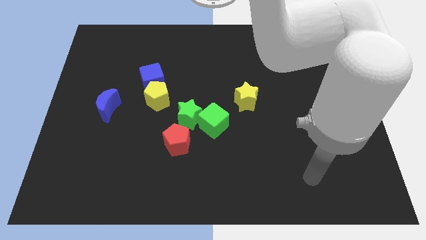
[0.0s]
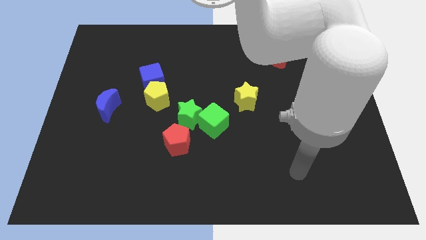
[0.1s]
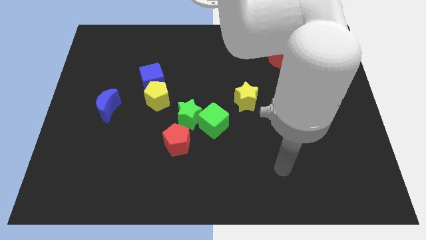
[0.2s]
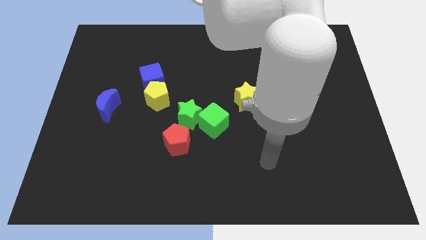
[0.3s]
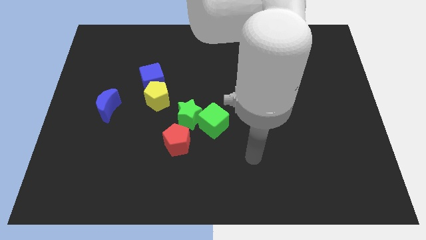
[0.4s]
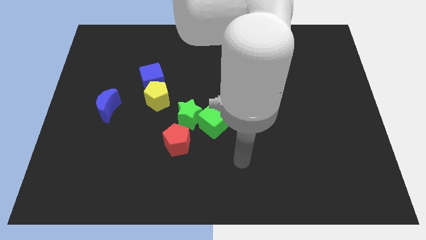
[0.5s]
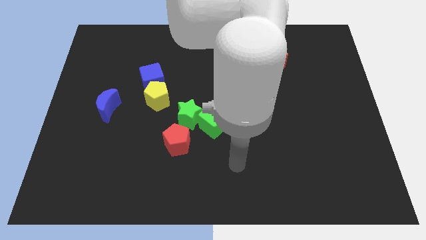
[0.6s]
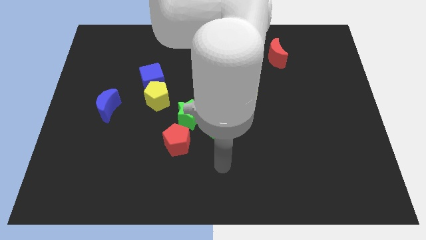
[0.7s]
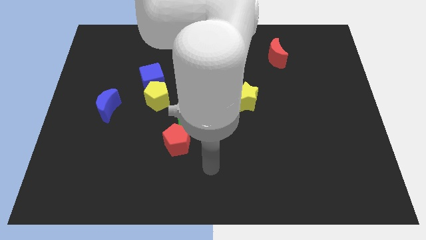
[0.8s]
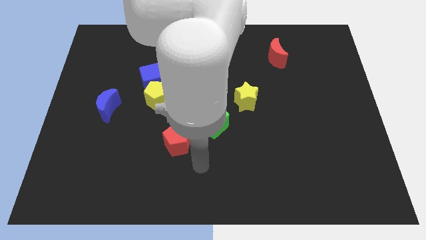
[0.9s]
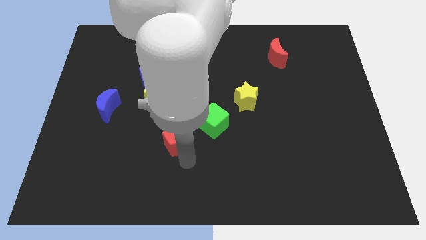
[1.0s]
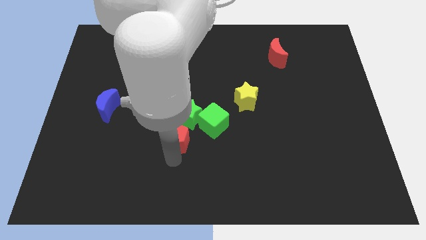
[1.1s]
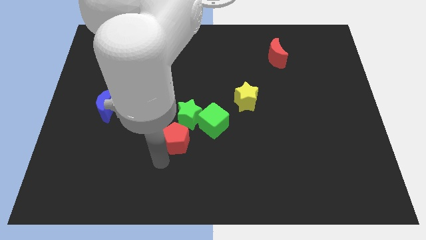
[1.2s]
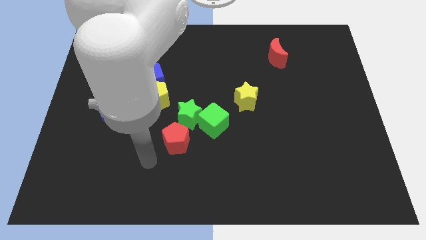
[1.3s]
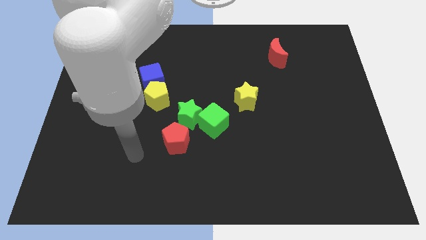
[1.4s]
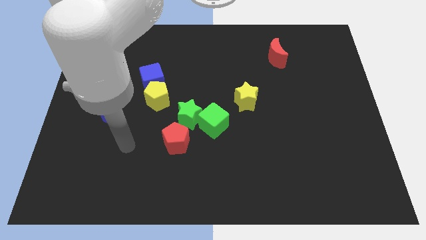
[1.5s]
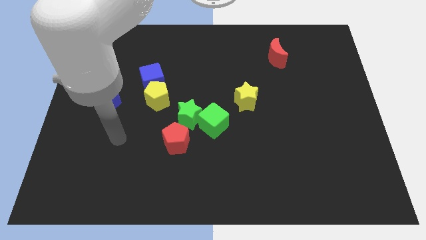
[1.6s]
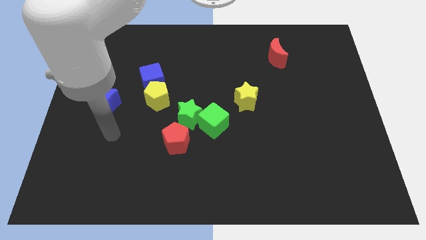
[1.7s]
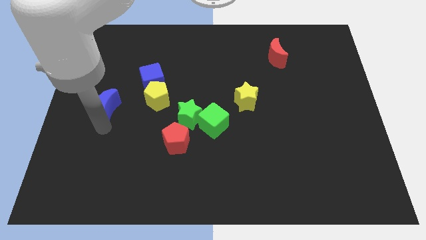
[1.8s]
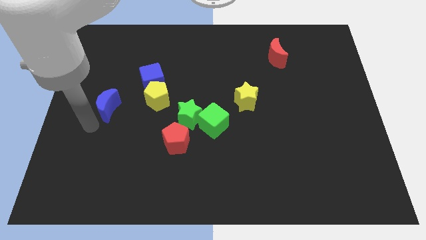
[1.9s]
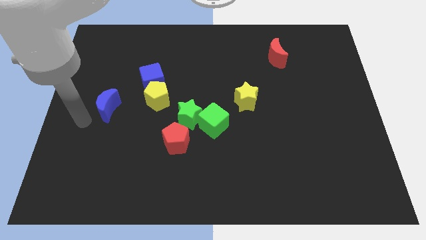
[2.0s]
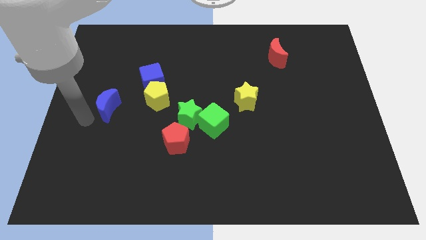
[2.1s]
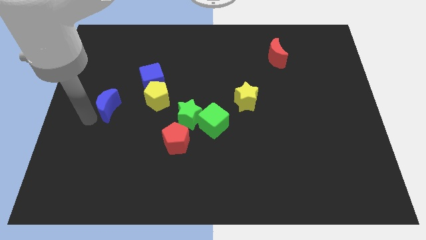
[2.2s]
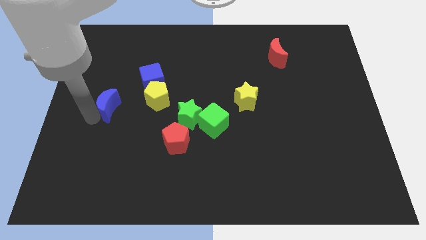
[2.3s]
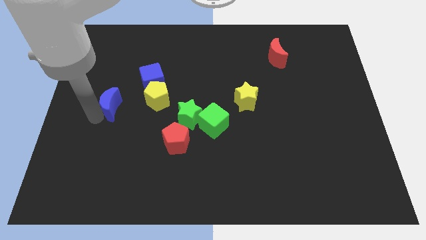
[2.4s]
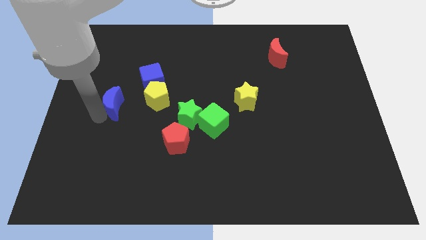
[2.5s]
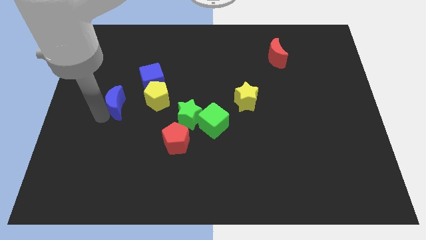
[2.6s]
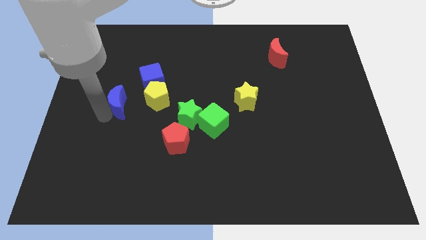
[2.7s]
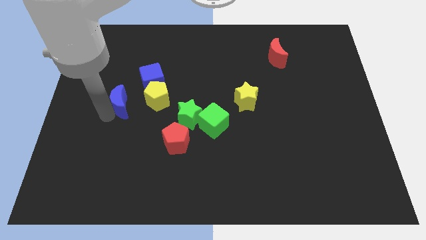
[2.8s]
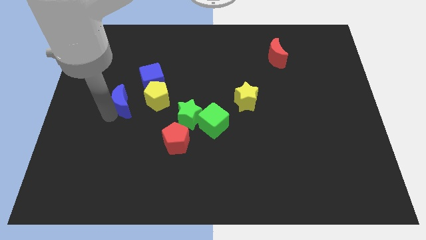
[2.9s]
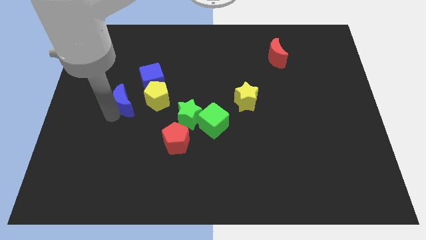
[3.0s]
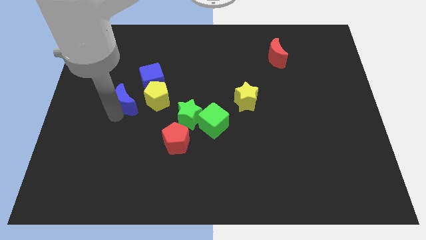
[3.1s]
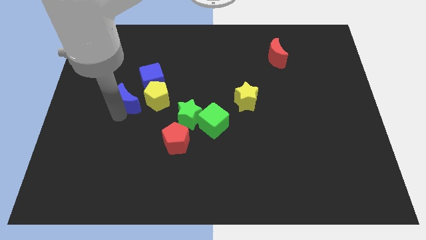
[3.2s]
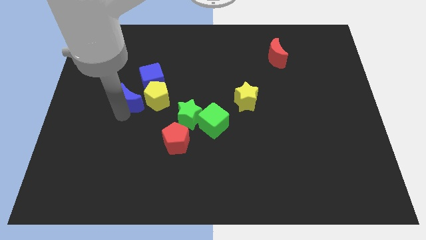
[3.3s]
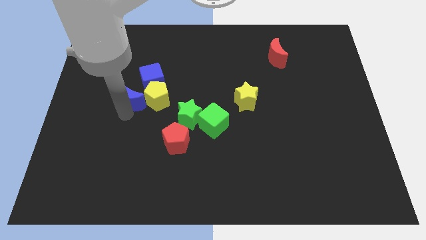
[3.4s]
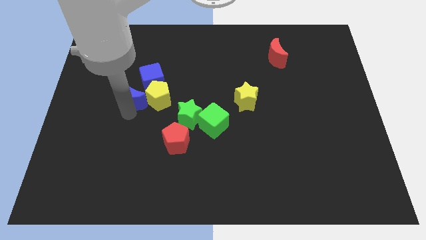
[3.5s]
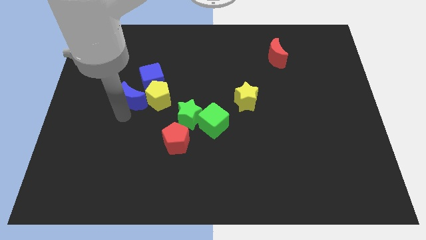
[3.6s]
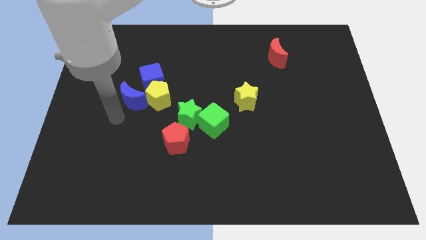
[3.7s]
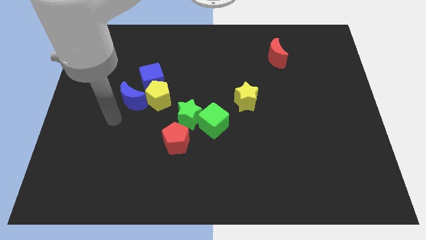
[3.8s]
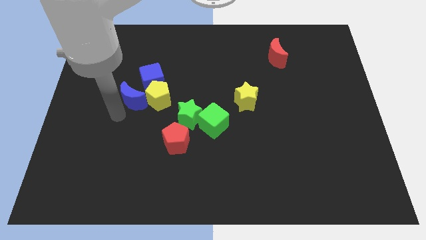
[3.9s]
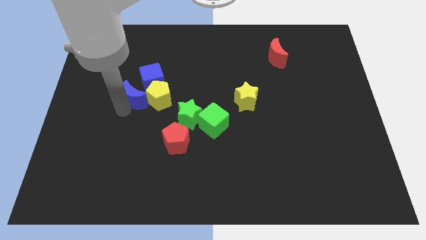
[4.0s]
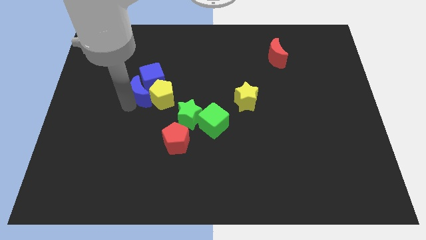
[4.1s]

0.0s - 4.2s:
slide the blue moon close to the blue cube

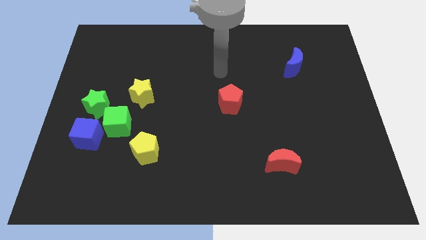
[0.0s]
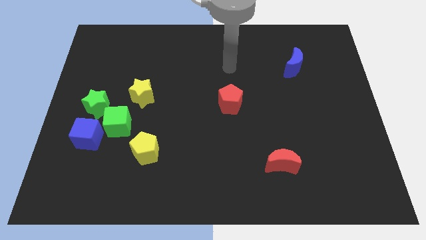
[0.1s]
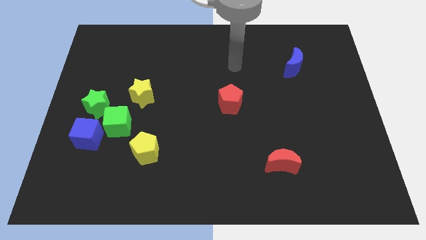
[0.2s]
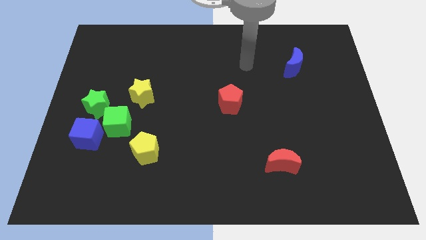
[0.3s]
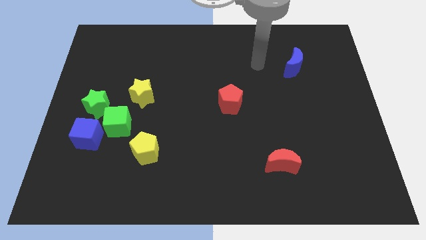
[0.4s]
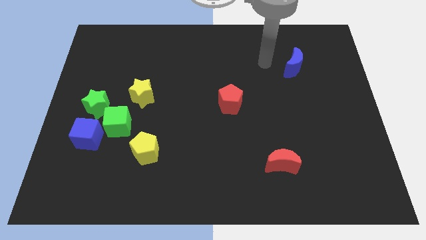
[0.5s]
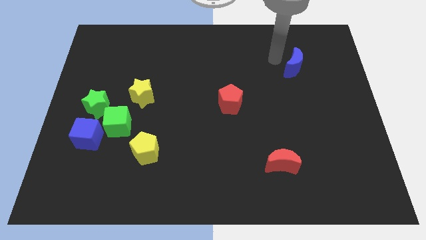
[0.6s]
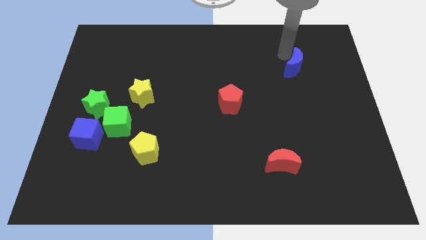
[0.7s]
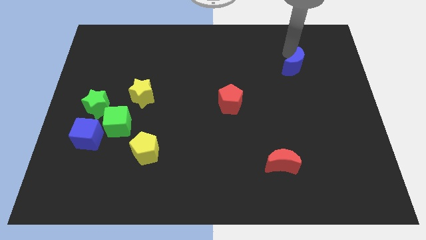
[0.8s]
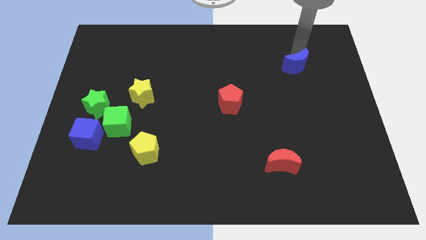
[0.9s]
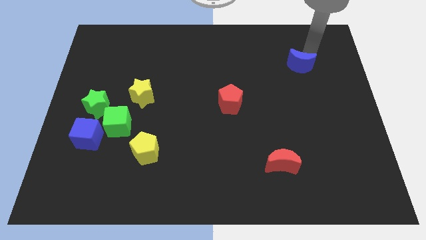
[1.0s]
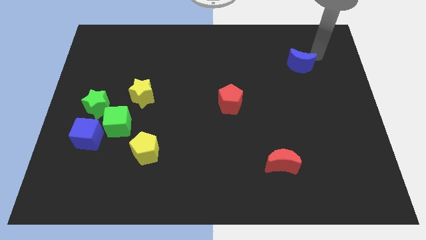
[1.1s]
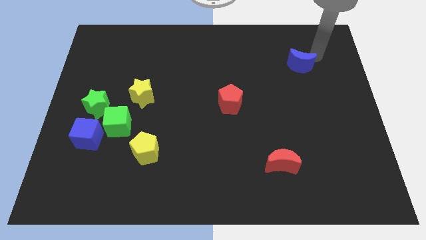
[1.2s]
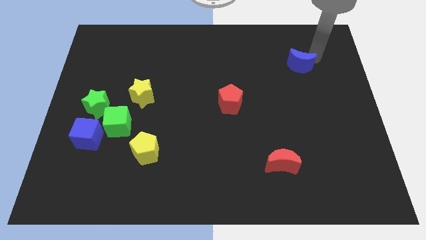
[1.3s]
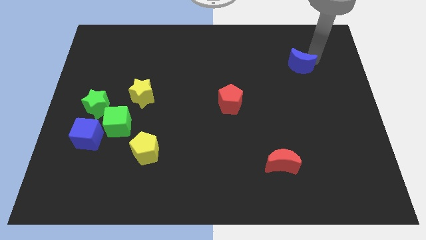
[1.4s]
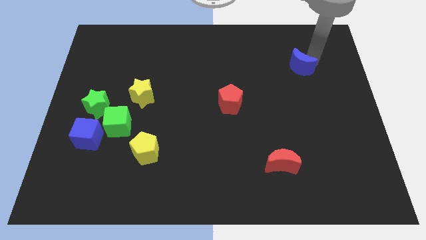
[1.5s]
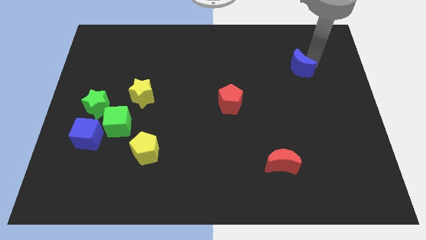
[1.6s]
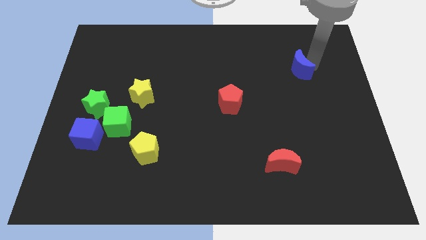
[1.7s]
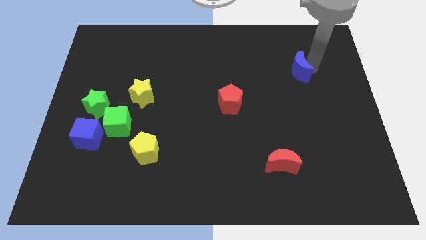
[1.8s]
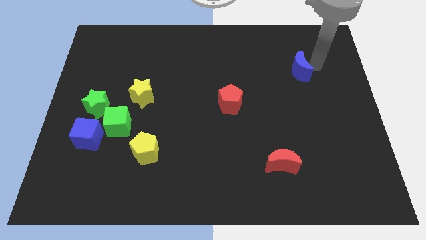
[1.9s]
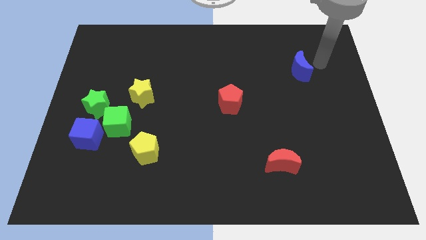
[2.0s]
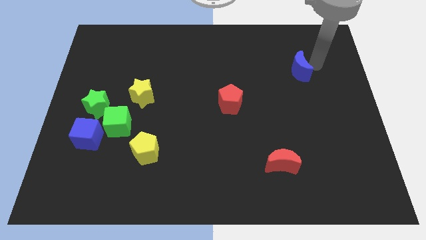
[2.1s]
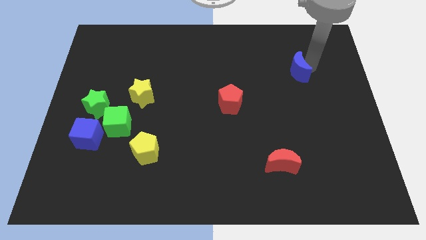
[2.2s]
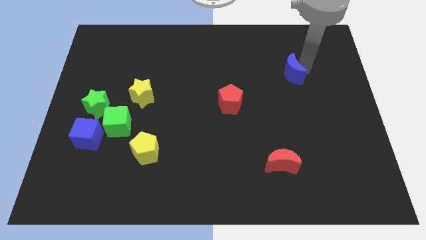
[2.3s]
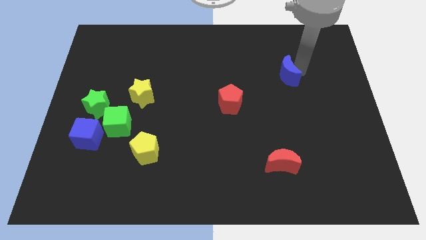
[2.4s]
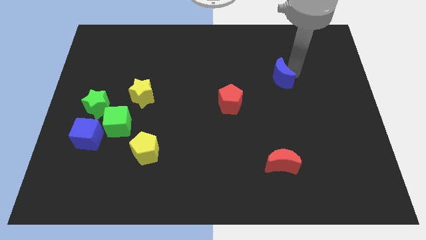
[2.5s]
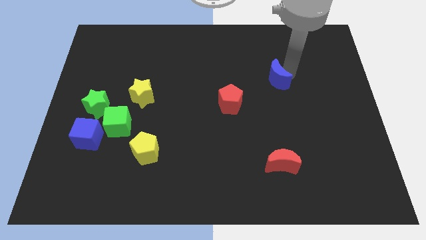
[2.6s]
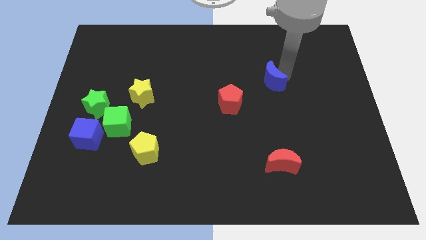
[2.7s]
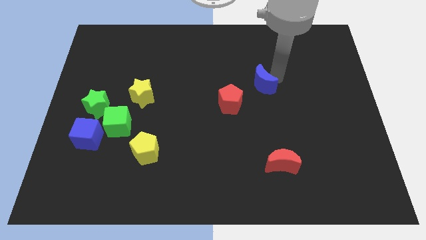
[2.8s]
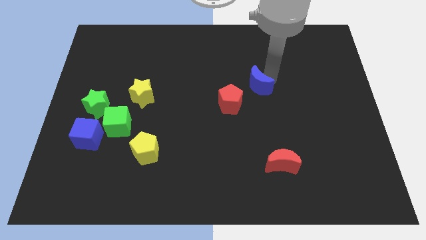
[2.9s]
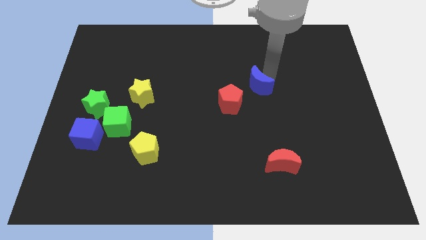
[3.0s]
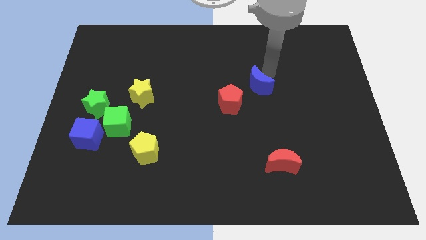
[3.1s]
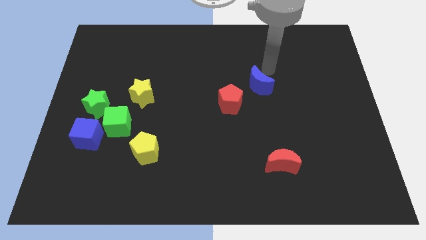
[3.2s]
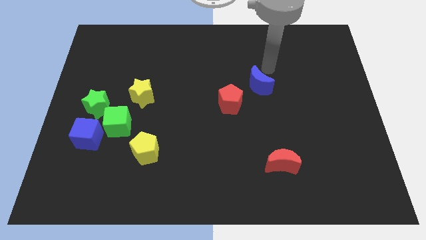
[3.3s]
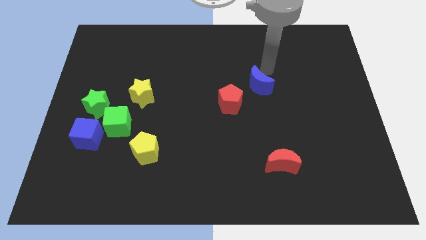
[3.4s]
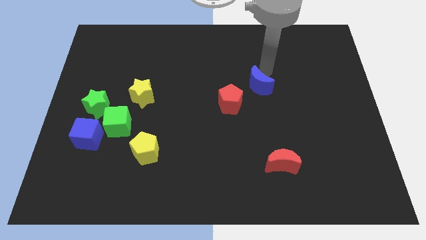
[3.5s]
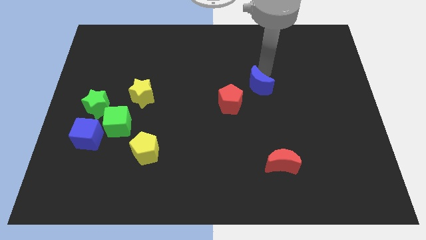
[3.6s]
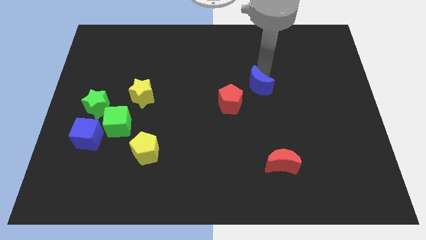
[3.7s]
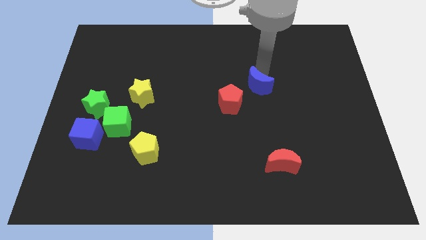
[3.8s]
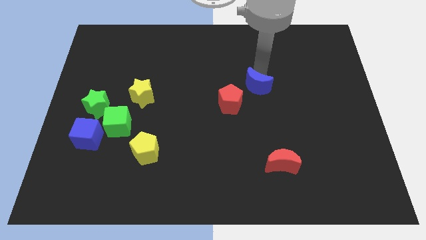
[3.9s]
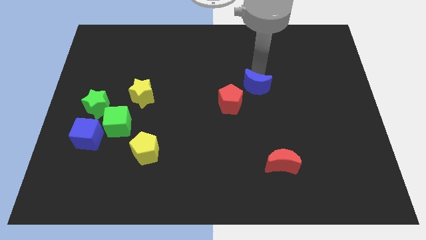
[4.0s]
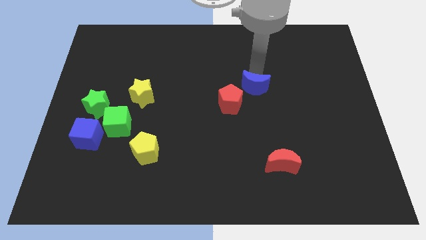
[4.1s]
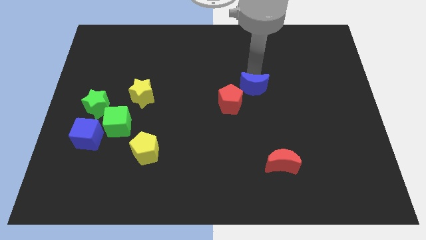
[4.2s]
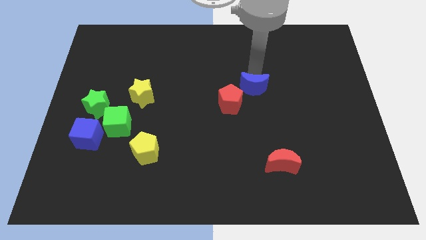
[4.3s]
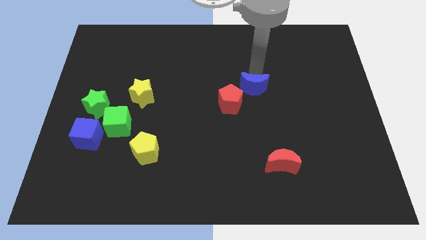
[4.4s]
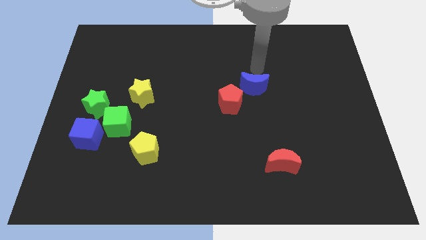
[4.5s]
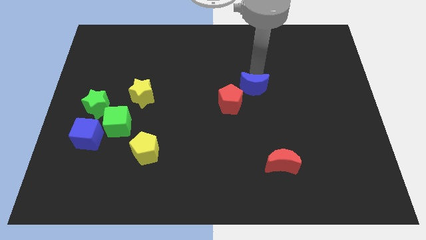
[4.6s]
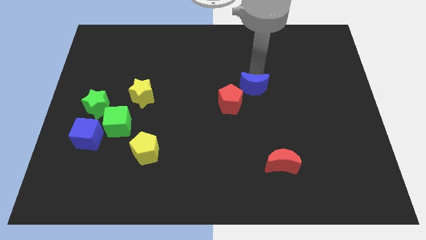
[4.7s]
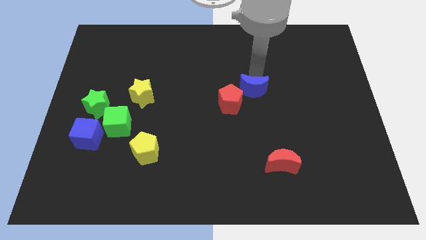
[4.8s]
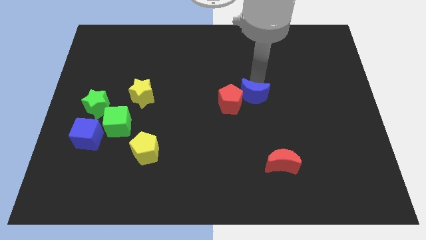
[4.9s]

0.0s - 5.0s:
slide the blue moon towards the red pentagon
